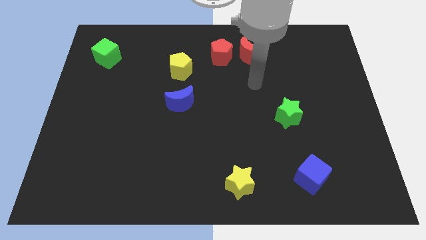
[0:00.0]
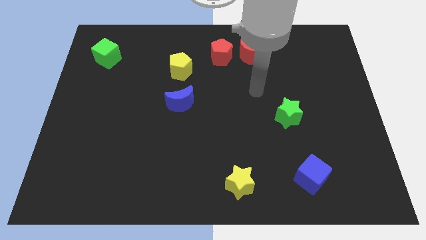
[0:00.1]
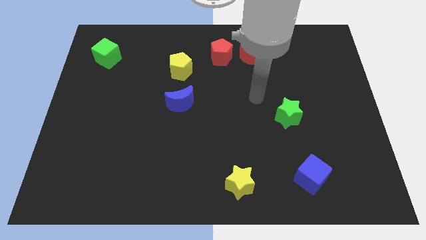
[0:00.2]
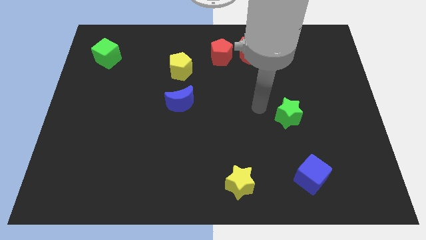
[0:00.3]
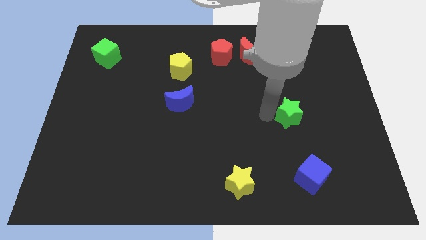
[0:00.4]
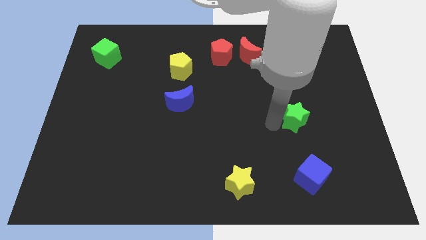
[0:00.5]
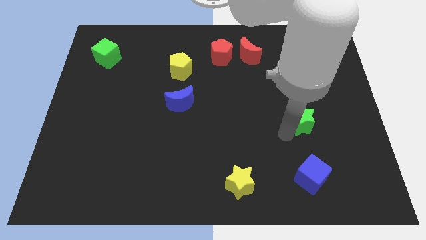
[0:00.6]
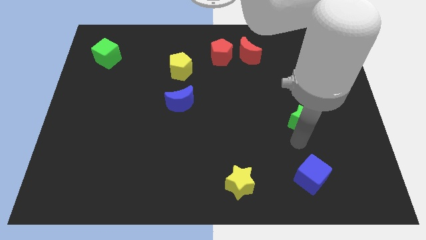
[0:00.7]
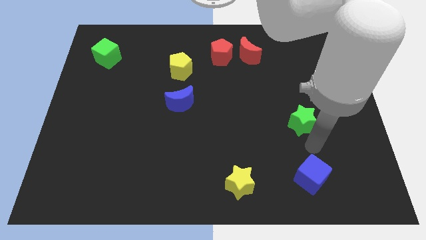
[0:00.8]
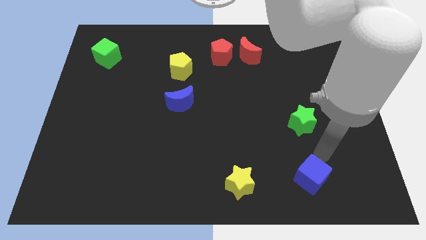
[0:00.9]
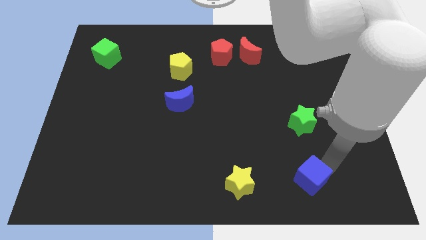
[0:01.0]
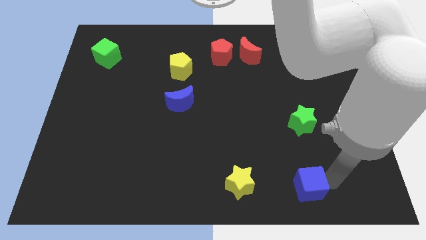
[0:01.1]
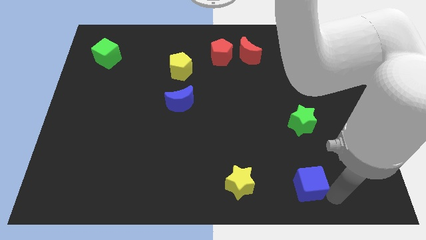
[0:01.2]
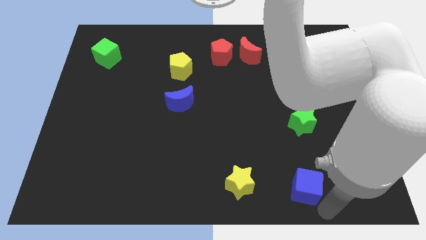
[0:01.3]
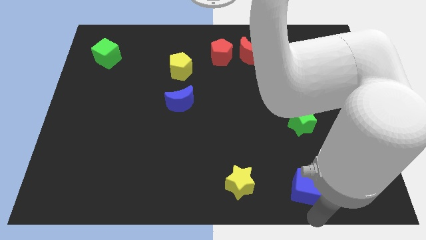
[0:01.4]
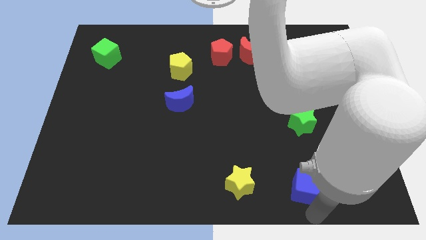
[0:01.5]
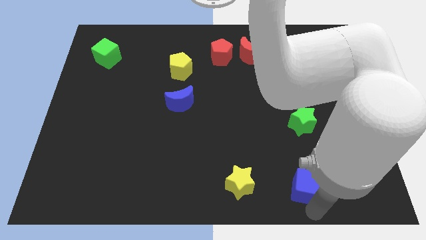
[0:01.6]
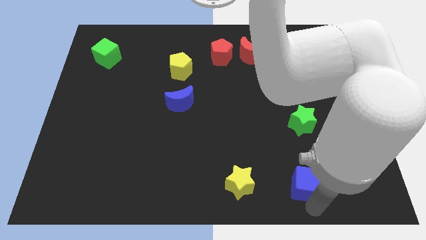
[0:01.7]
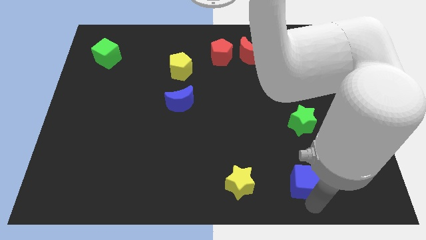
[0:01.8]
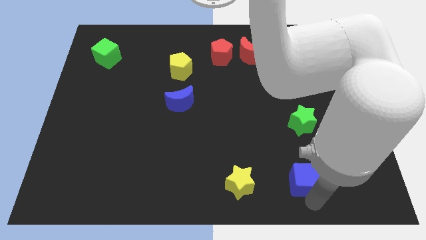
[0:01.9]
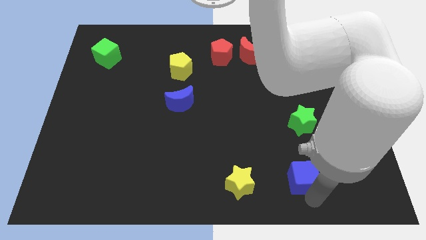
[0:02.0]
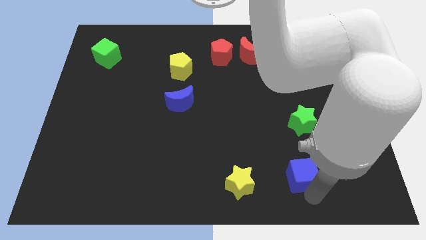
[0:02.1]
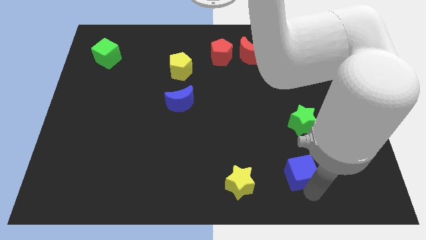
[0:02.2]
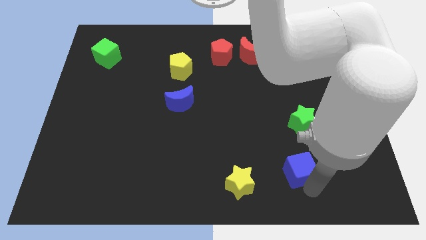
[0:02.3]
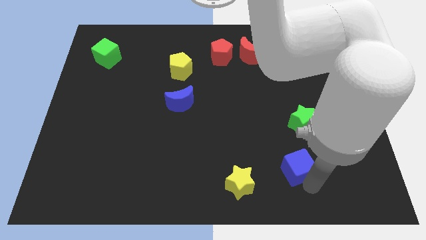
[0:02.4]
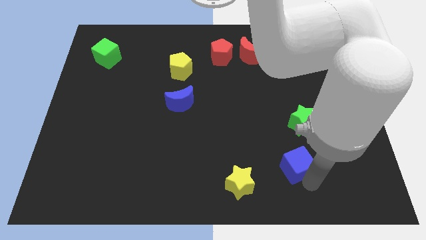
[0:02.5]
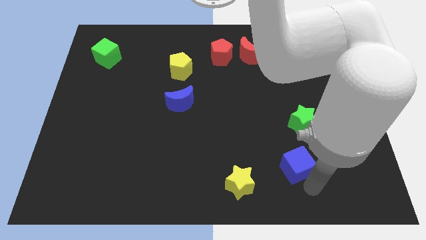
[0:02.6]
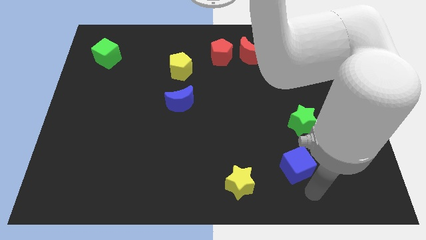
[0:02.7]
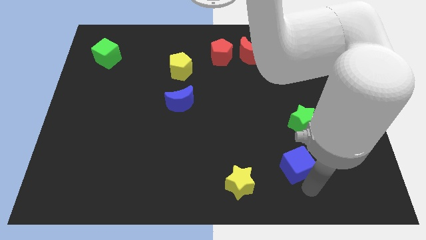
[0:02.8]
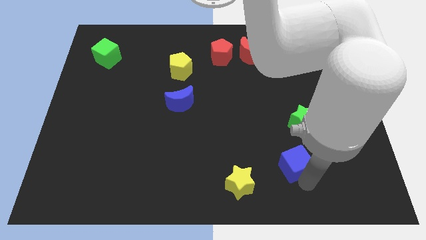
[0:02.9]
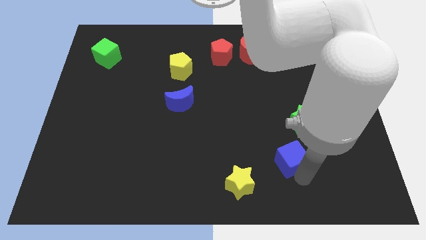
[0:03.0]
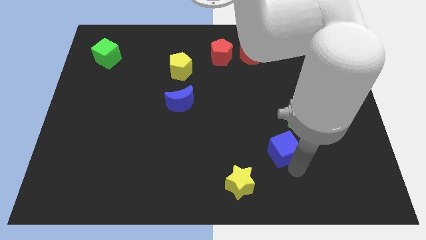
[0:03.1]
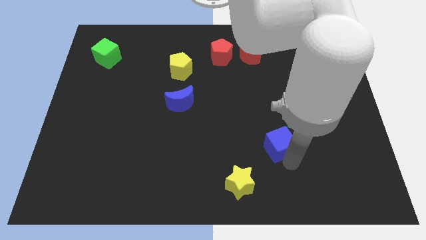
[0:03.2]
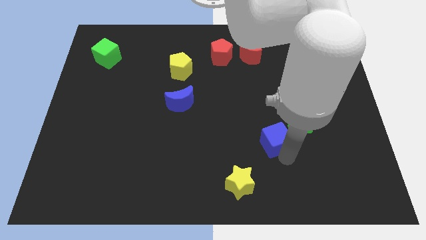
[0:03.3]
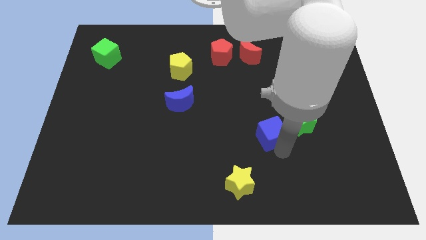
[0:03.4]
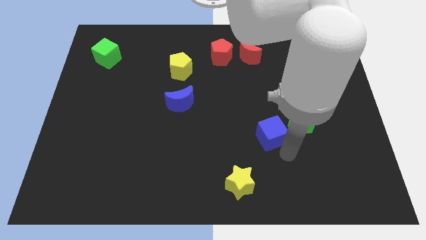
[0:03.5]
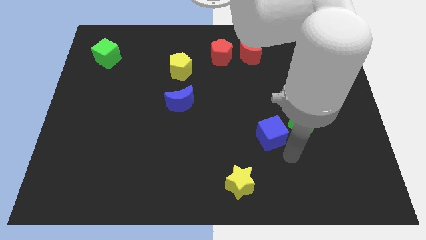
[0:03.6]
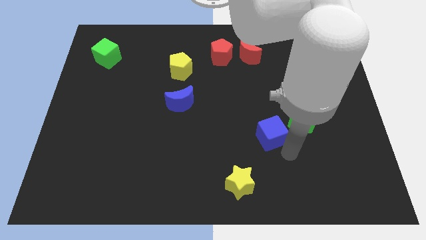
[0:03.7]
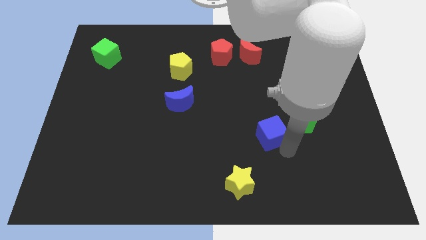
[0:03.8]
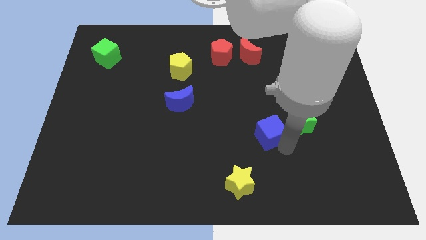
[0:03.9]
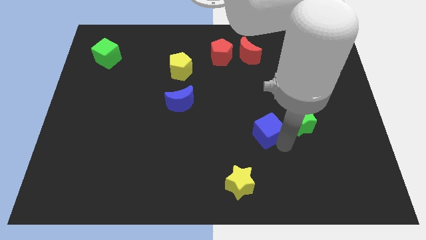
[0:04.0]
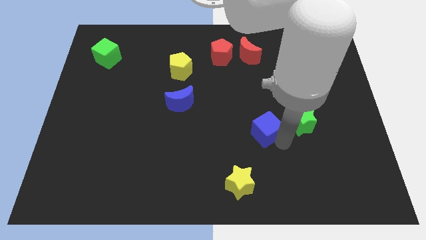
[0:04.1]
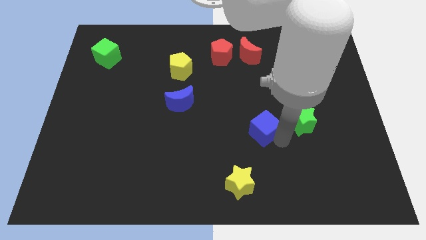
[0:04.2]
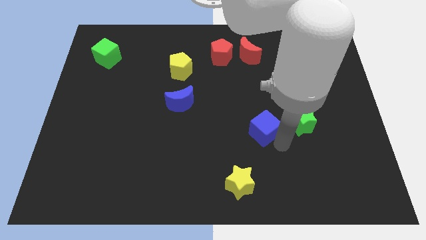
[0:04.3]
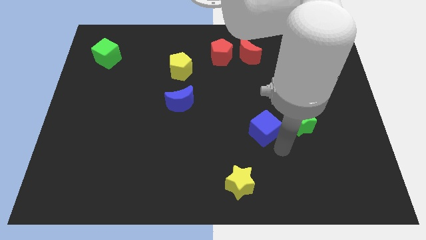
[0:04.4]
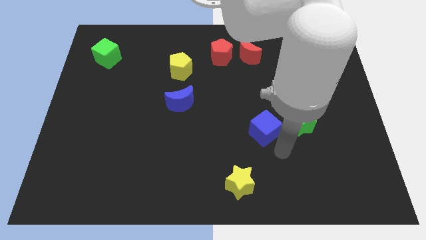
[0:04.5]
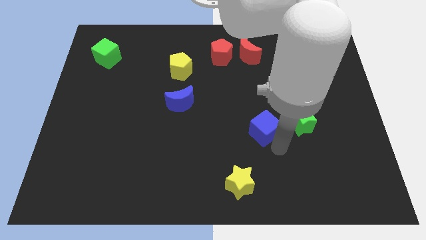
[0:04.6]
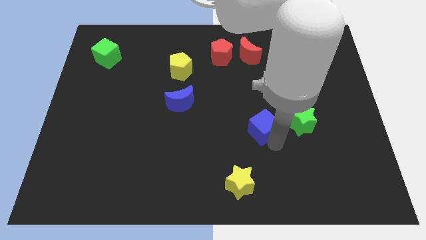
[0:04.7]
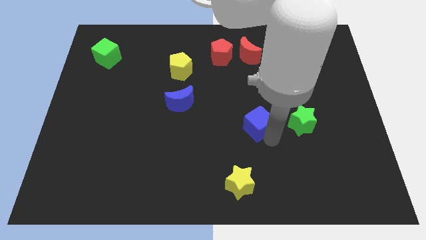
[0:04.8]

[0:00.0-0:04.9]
push the blue cube to the center of the board

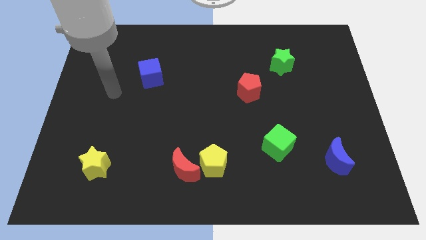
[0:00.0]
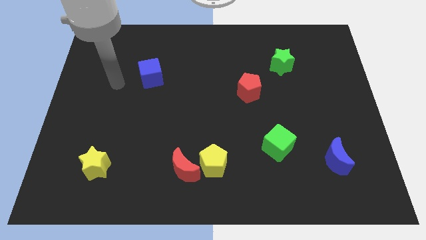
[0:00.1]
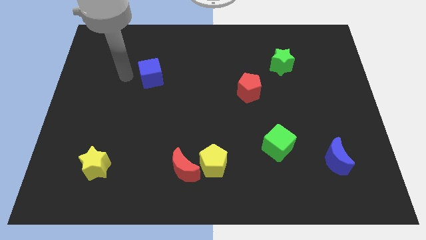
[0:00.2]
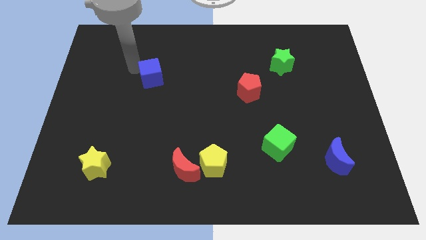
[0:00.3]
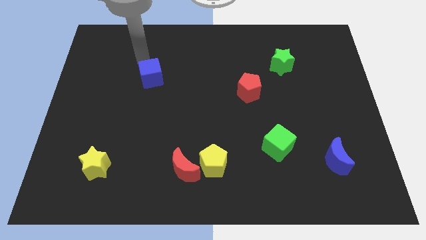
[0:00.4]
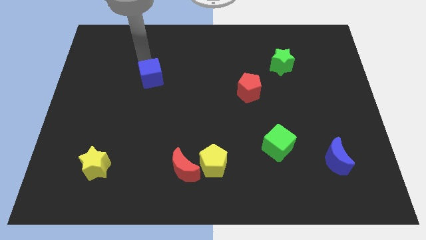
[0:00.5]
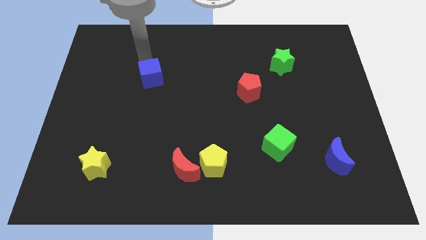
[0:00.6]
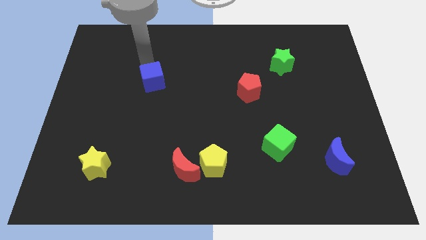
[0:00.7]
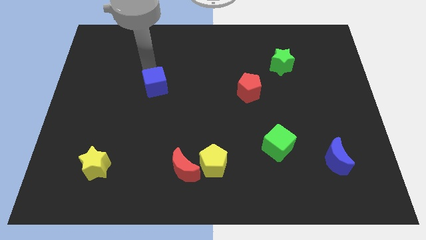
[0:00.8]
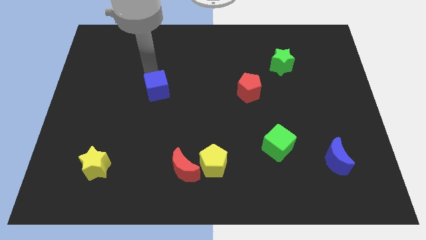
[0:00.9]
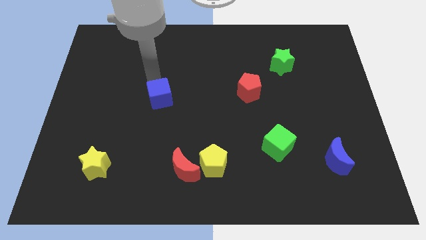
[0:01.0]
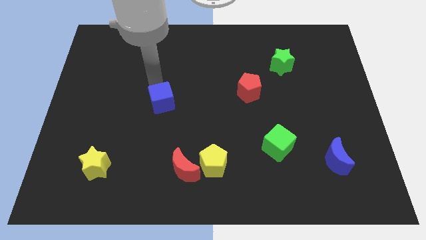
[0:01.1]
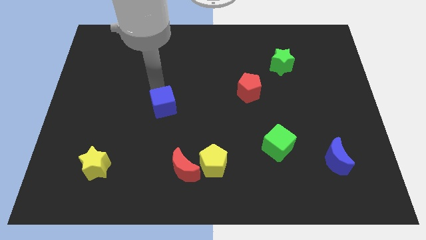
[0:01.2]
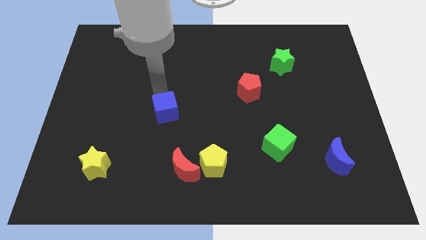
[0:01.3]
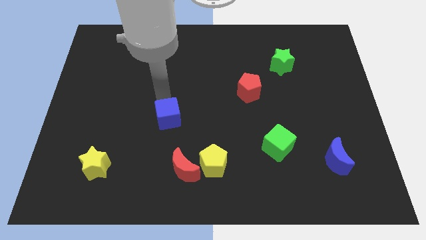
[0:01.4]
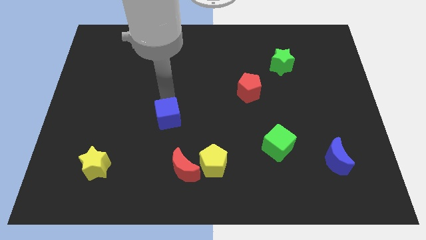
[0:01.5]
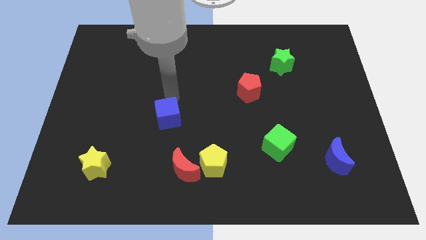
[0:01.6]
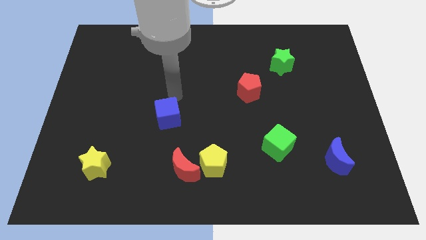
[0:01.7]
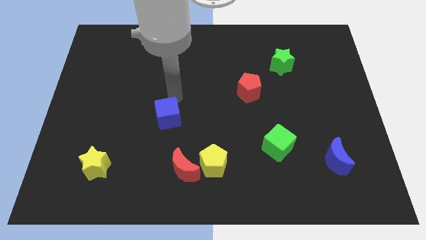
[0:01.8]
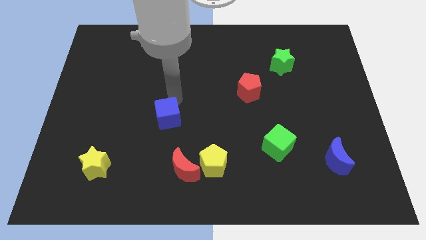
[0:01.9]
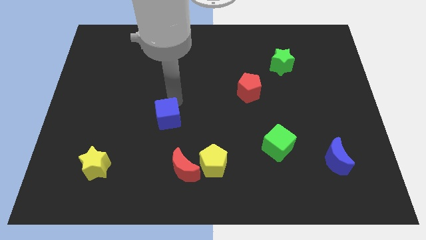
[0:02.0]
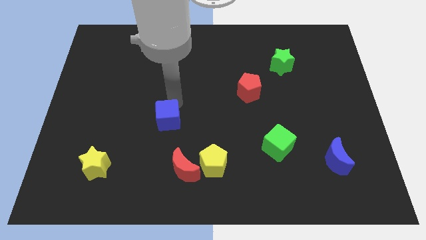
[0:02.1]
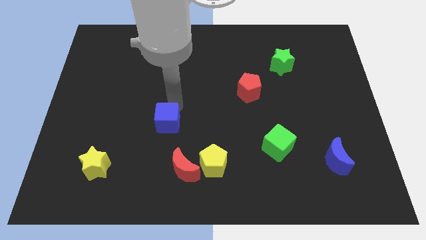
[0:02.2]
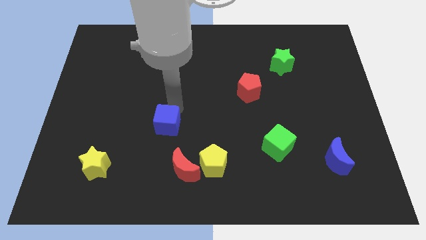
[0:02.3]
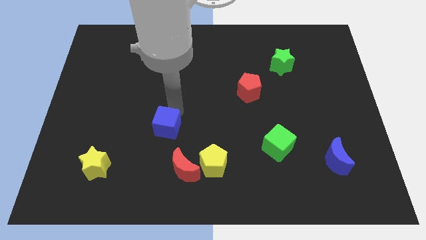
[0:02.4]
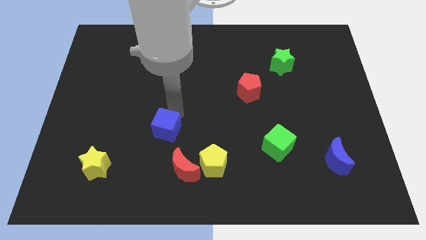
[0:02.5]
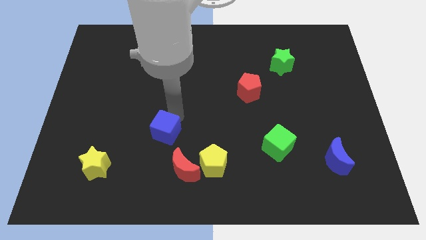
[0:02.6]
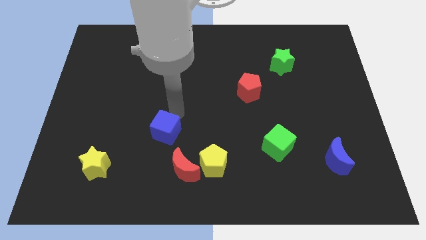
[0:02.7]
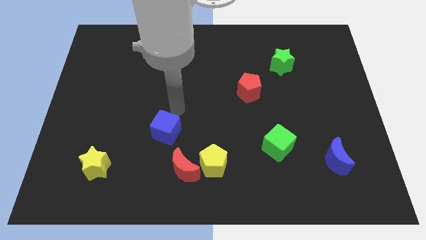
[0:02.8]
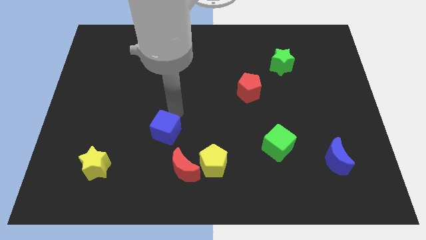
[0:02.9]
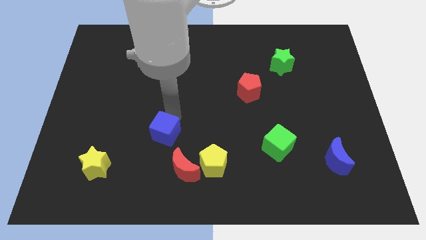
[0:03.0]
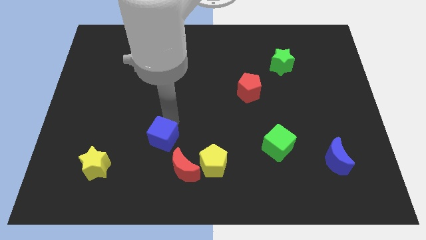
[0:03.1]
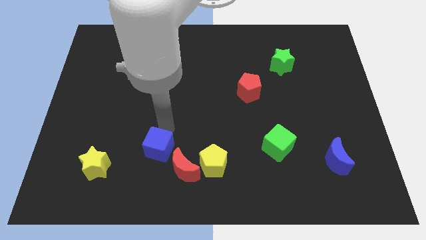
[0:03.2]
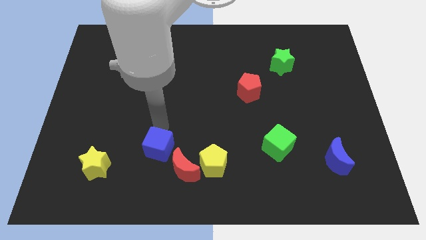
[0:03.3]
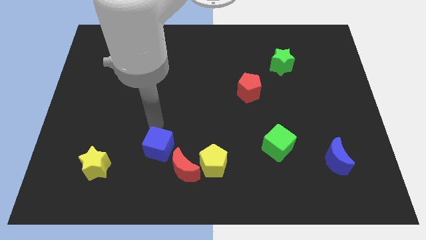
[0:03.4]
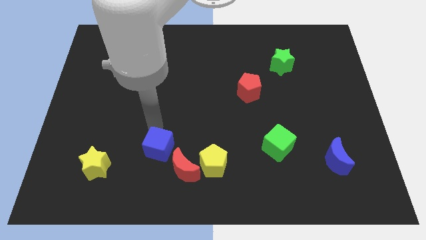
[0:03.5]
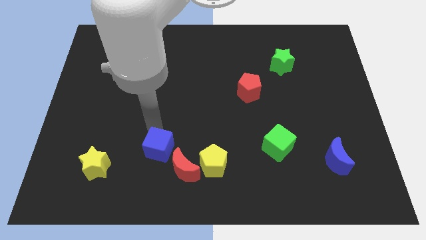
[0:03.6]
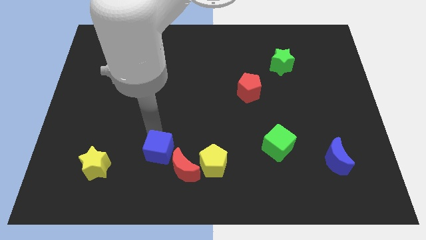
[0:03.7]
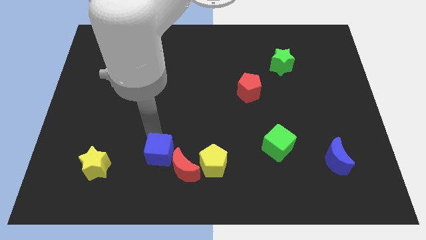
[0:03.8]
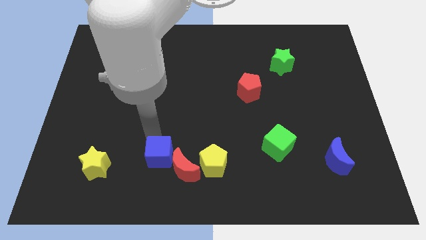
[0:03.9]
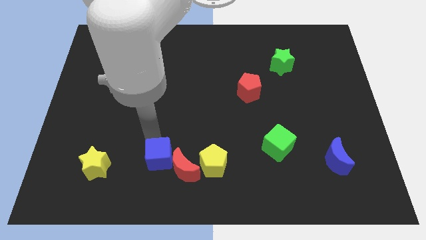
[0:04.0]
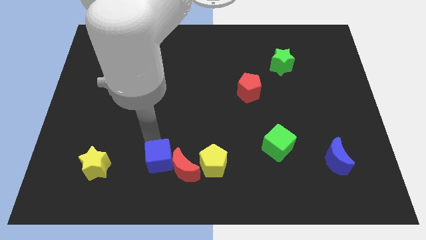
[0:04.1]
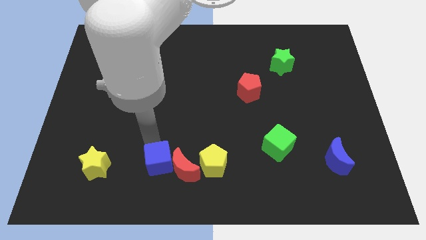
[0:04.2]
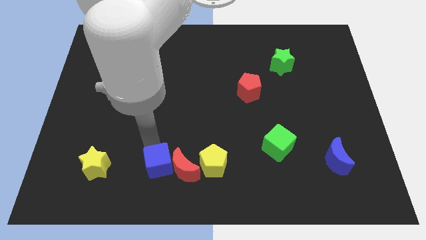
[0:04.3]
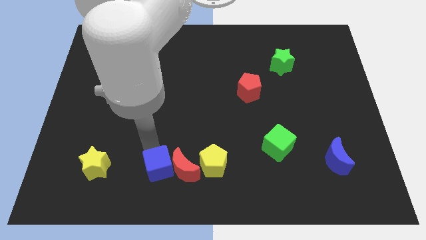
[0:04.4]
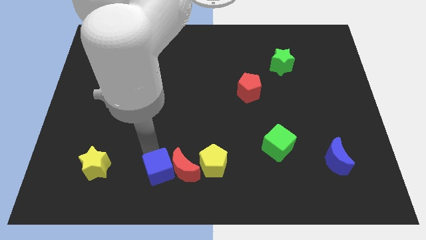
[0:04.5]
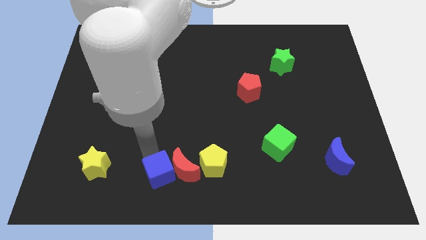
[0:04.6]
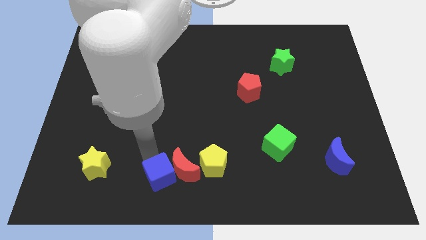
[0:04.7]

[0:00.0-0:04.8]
move the blue cube to the bottom
